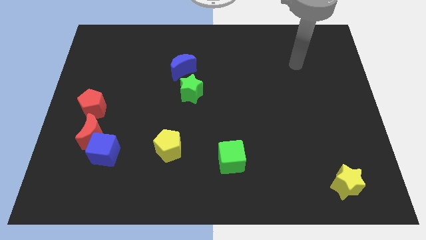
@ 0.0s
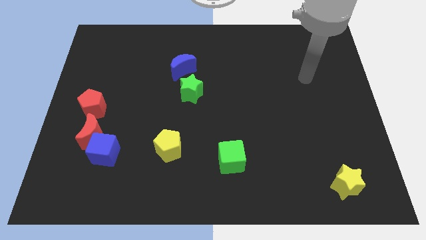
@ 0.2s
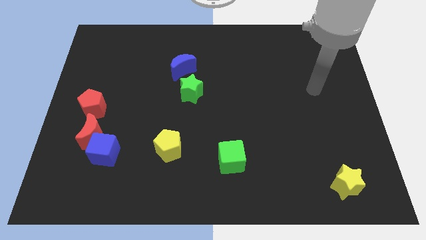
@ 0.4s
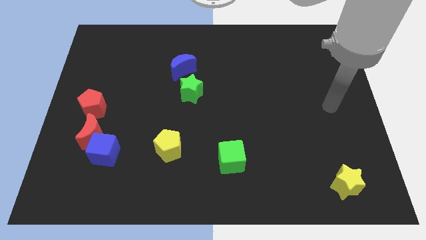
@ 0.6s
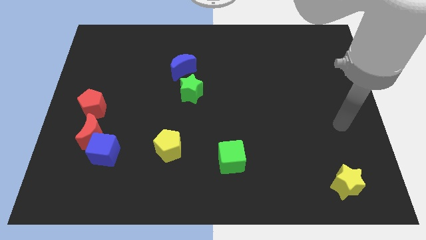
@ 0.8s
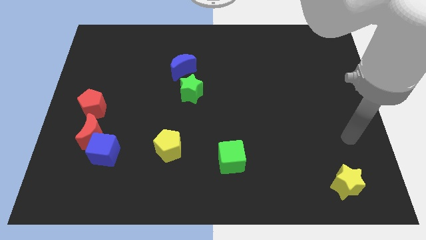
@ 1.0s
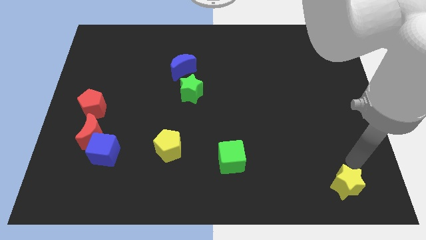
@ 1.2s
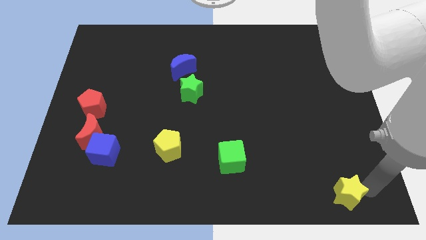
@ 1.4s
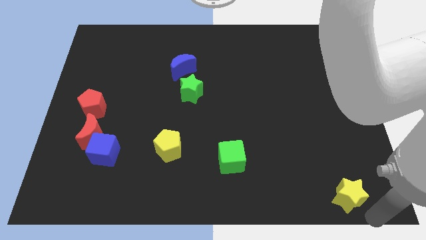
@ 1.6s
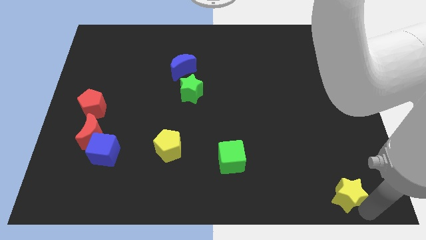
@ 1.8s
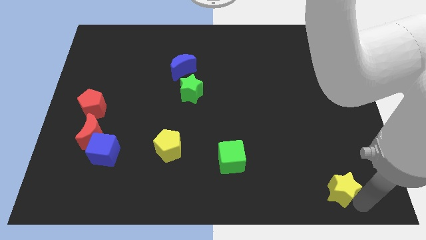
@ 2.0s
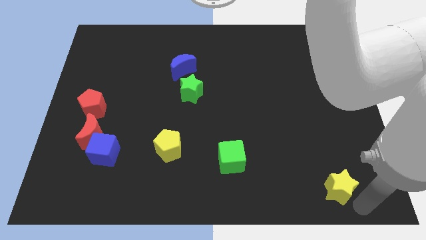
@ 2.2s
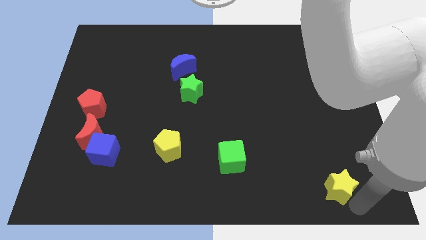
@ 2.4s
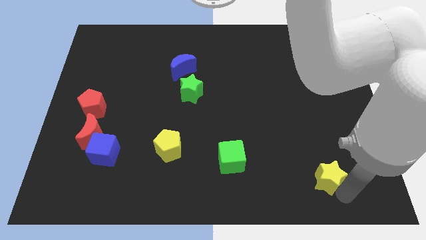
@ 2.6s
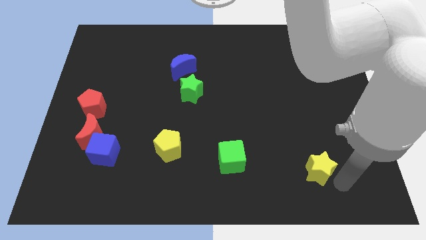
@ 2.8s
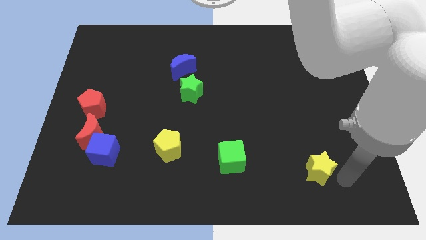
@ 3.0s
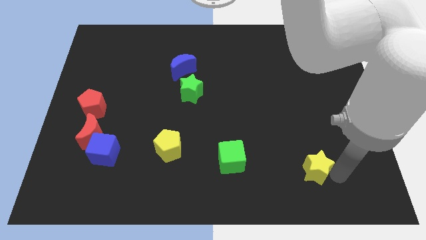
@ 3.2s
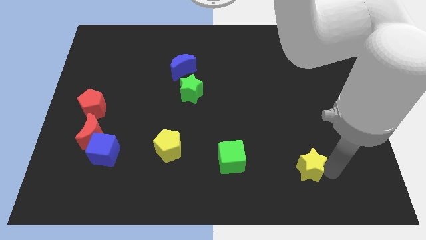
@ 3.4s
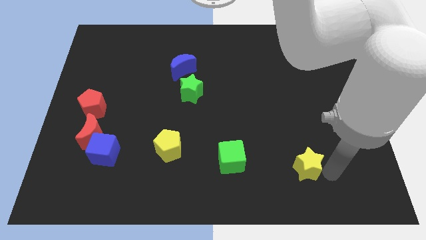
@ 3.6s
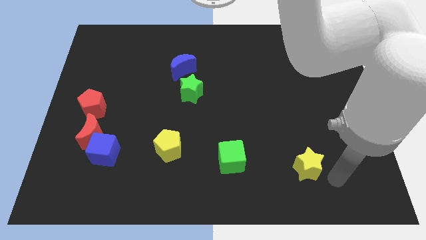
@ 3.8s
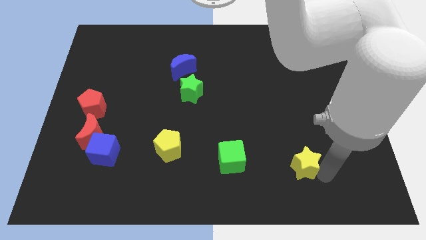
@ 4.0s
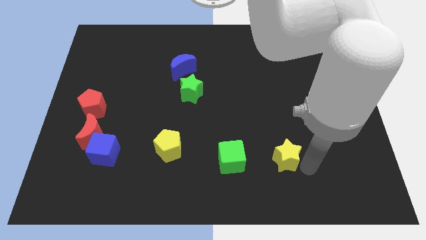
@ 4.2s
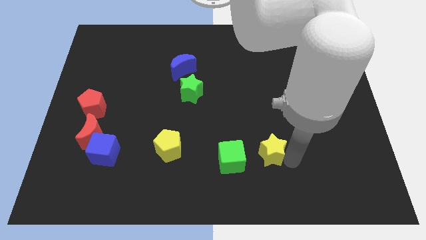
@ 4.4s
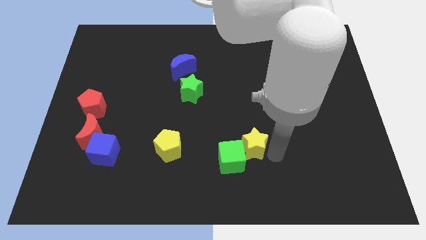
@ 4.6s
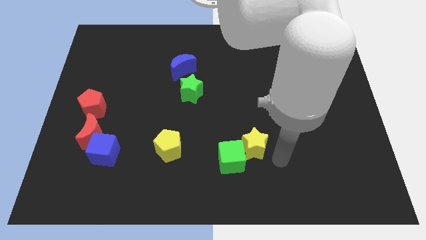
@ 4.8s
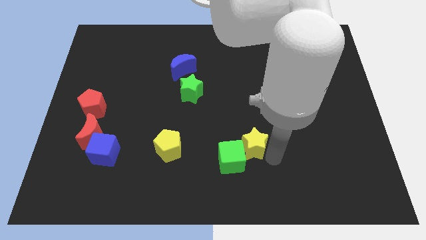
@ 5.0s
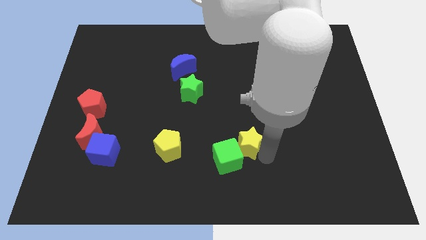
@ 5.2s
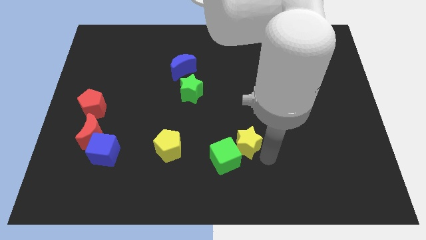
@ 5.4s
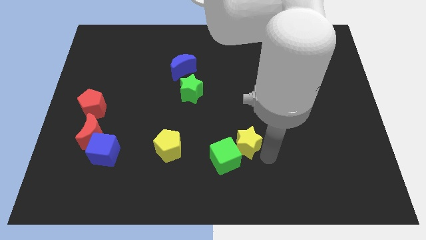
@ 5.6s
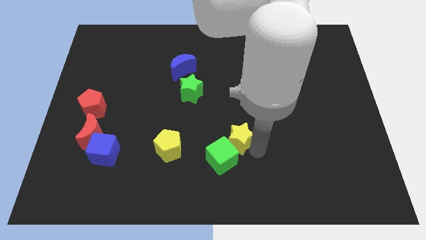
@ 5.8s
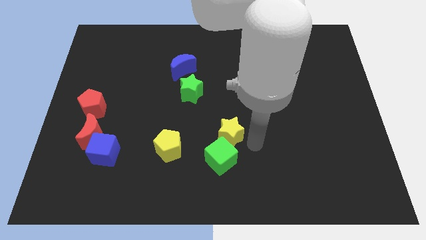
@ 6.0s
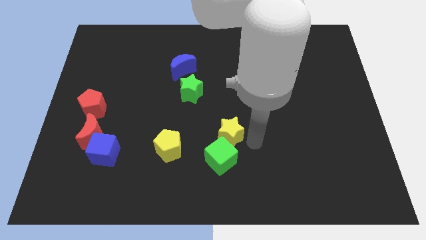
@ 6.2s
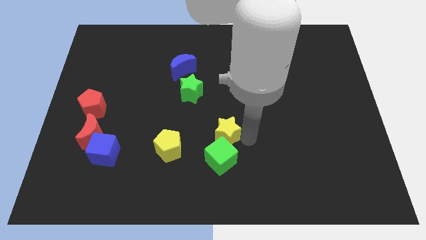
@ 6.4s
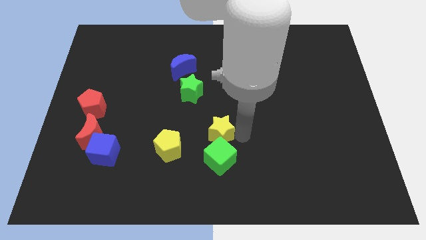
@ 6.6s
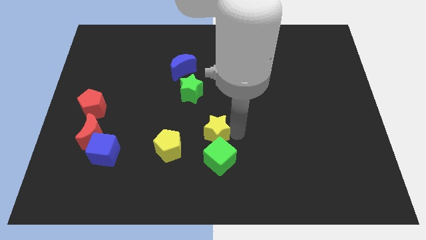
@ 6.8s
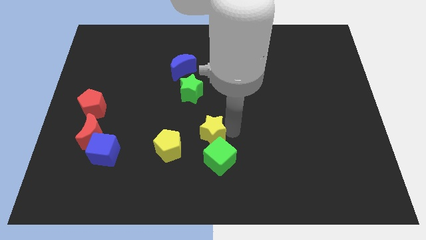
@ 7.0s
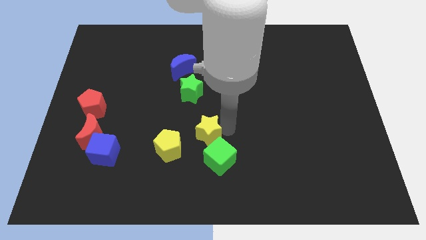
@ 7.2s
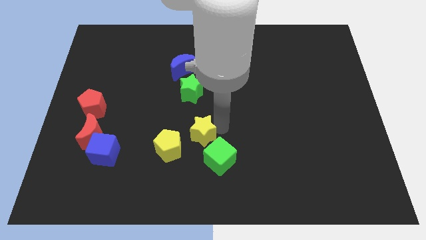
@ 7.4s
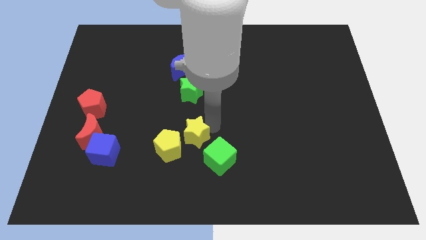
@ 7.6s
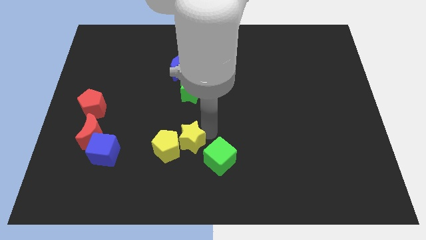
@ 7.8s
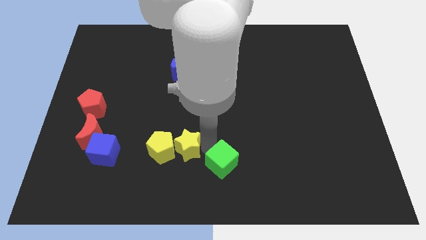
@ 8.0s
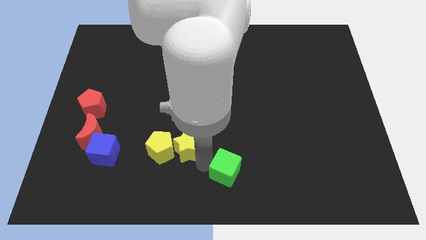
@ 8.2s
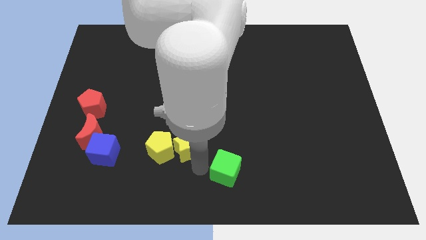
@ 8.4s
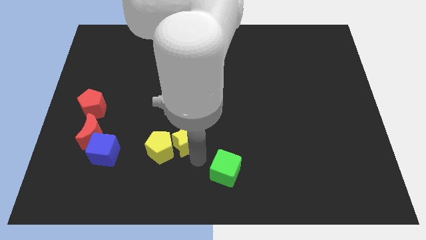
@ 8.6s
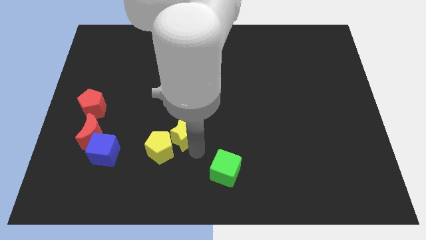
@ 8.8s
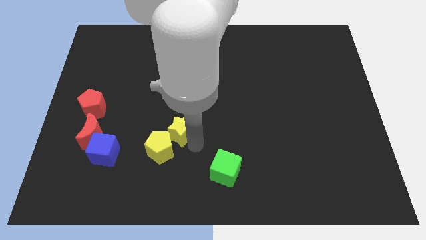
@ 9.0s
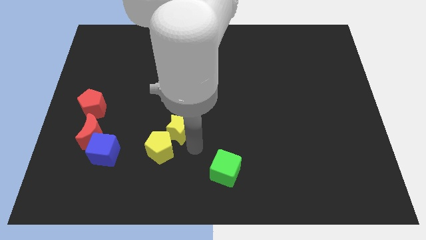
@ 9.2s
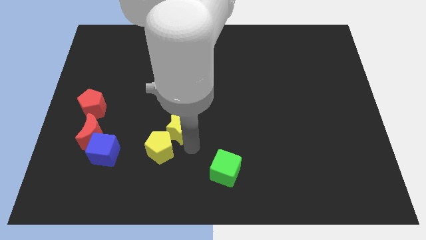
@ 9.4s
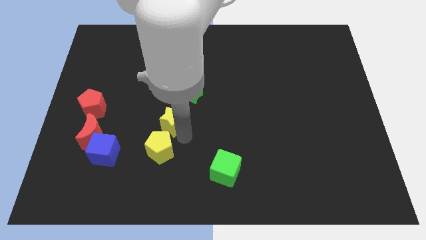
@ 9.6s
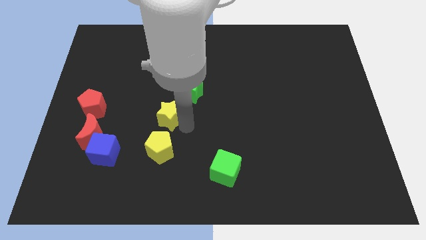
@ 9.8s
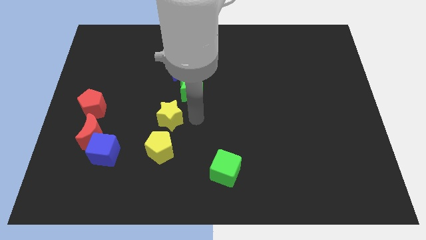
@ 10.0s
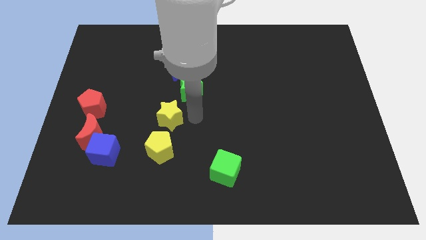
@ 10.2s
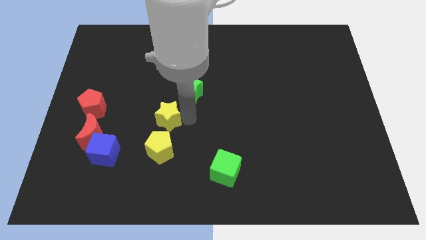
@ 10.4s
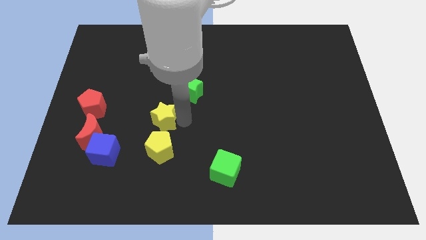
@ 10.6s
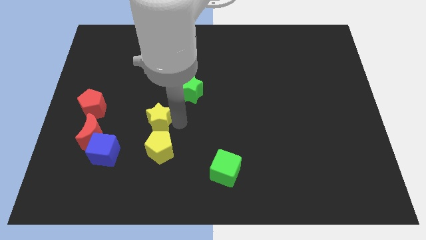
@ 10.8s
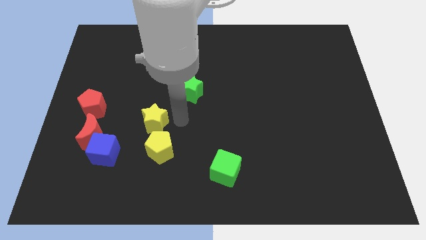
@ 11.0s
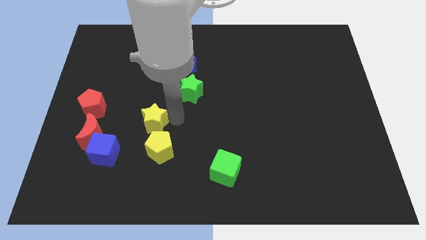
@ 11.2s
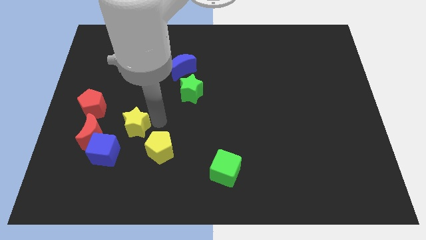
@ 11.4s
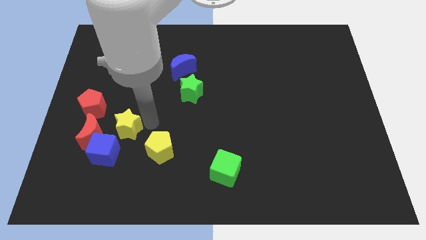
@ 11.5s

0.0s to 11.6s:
push the yellow star to the bottom right of the red pentagon

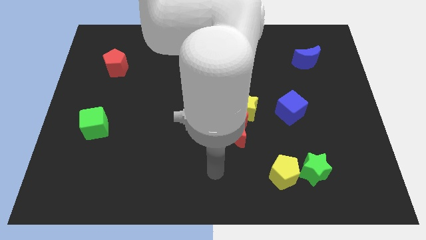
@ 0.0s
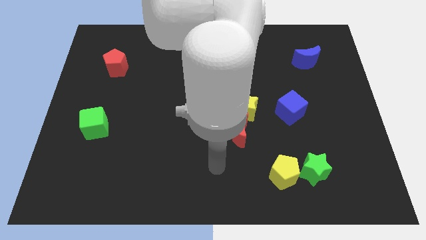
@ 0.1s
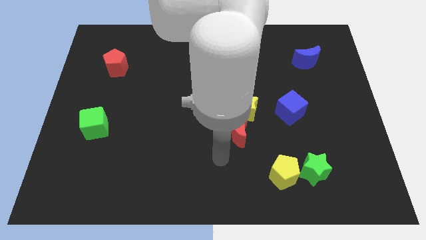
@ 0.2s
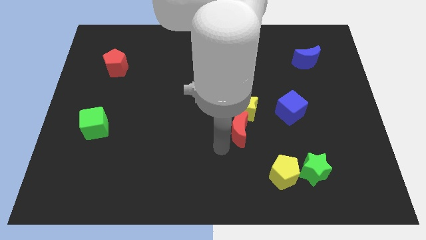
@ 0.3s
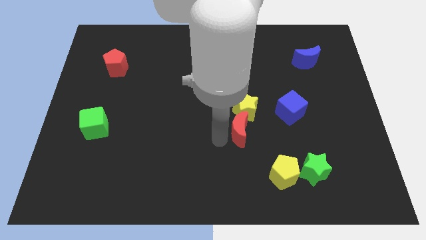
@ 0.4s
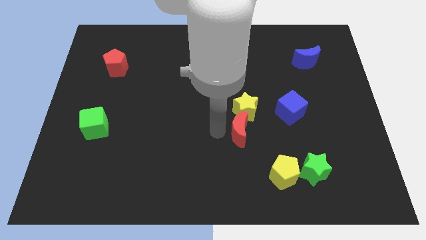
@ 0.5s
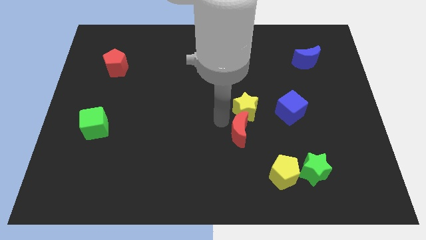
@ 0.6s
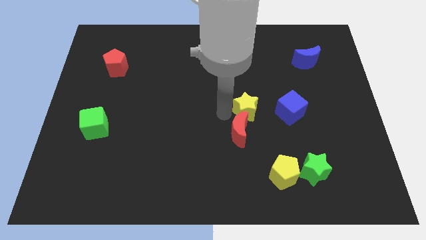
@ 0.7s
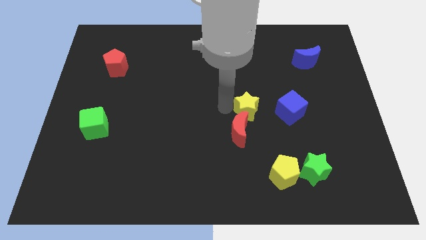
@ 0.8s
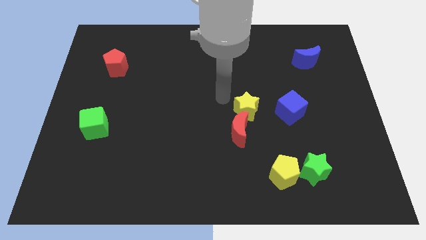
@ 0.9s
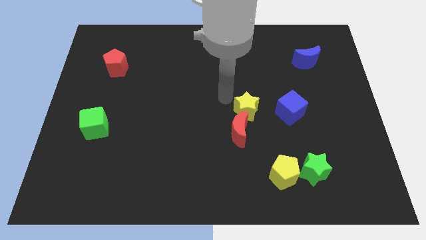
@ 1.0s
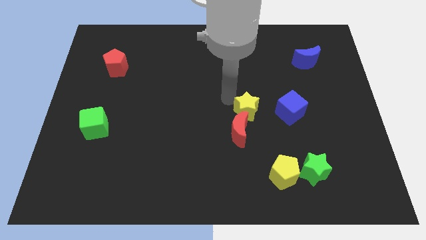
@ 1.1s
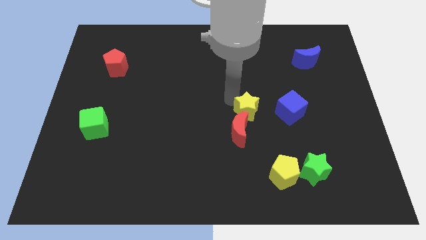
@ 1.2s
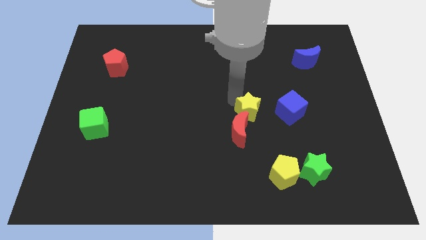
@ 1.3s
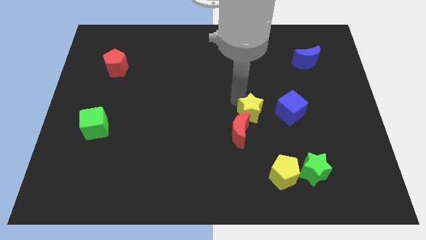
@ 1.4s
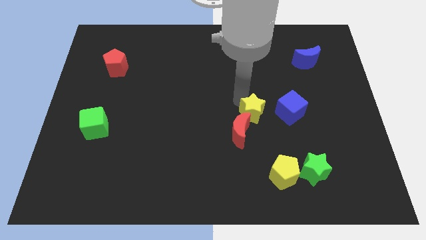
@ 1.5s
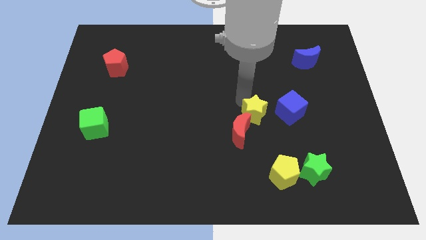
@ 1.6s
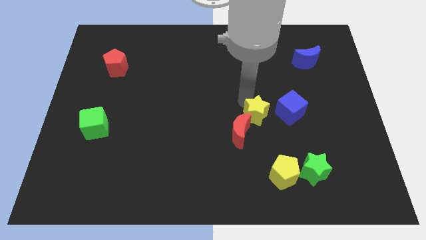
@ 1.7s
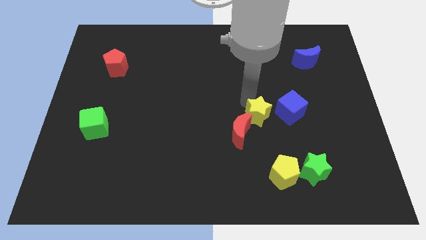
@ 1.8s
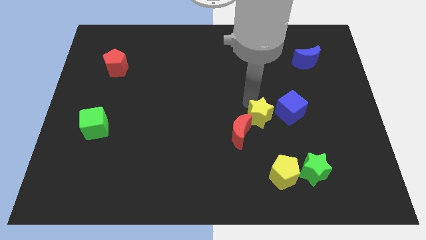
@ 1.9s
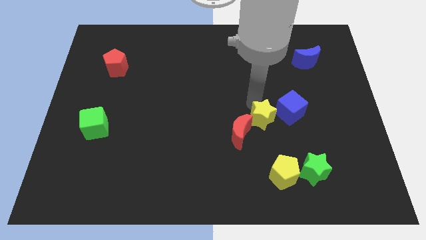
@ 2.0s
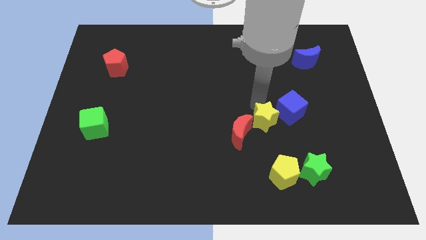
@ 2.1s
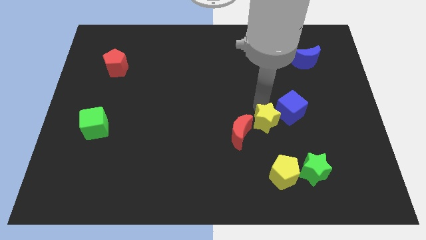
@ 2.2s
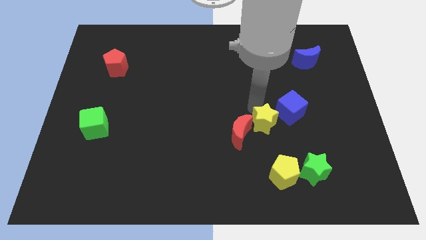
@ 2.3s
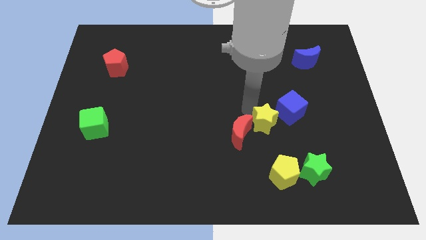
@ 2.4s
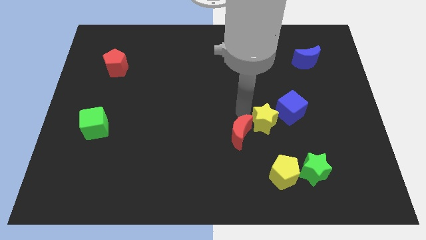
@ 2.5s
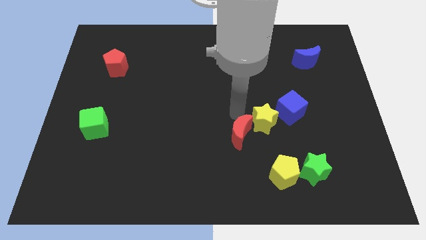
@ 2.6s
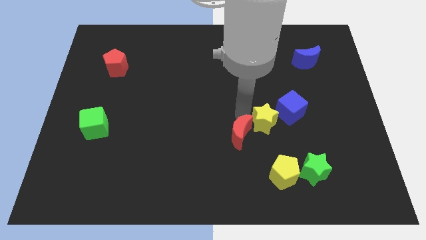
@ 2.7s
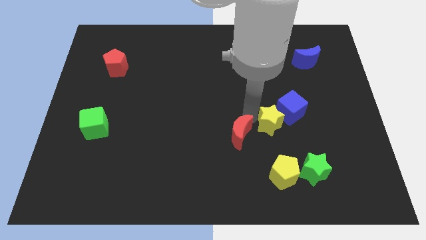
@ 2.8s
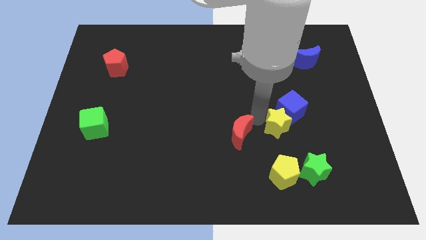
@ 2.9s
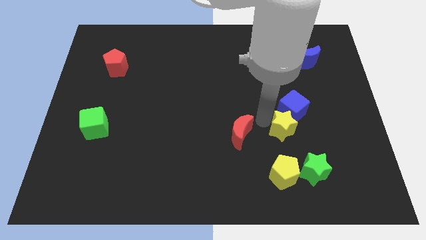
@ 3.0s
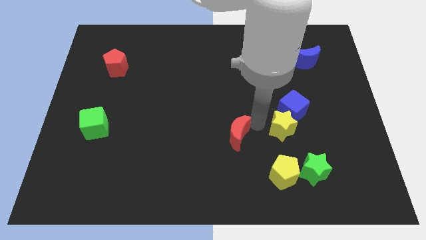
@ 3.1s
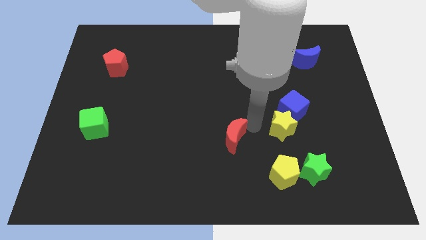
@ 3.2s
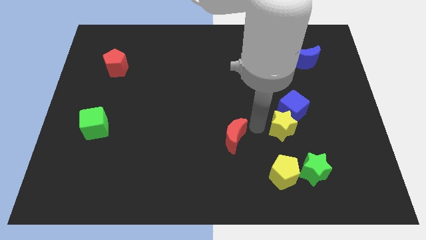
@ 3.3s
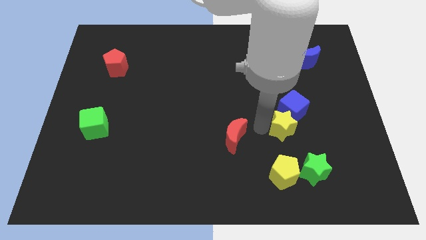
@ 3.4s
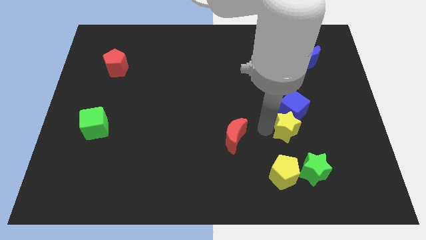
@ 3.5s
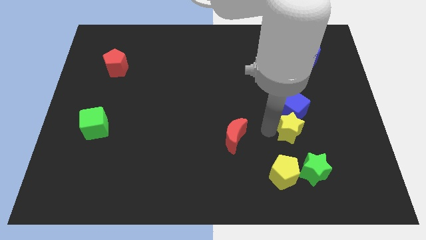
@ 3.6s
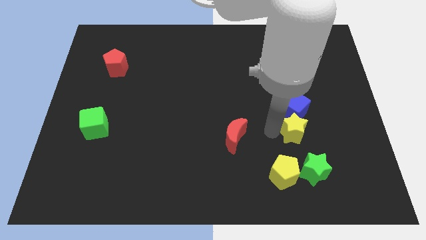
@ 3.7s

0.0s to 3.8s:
push the yellow star to the bottom right side of the blue cube
